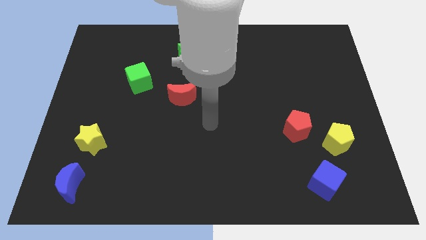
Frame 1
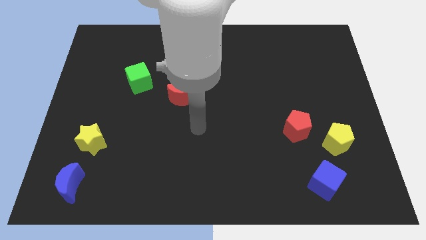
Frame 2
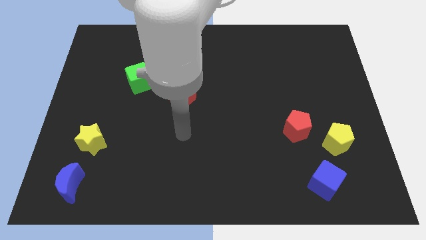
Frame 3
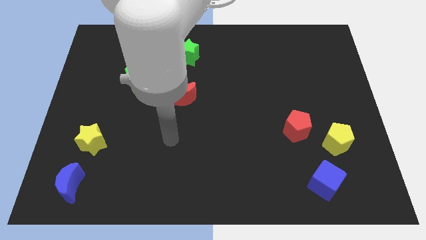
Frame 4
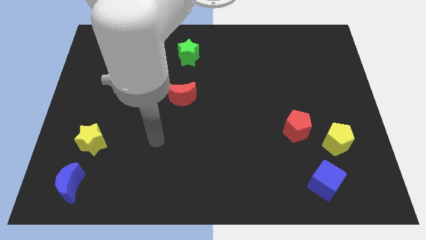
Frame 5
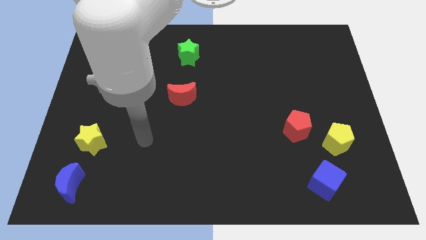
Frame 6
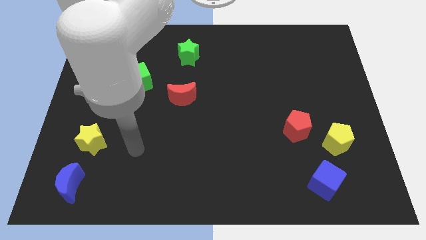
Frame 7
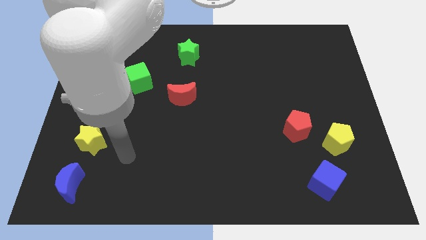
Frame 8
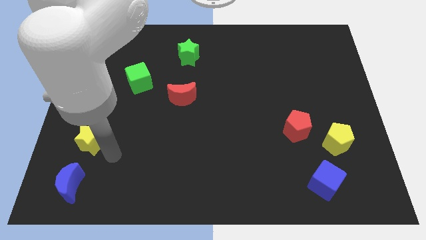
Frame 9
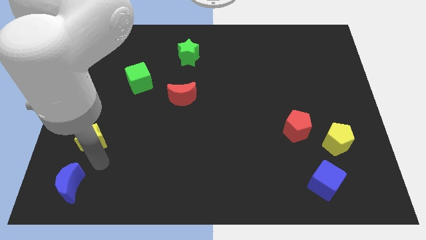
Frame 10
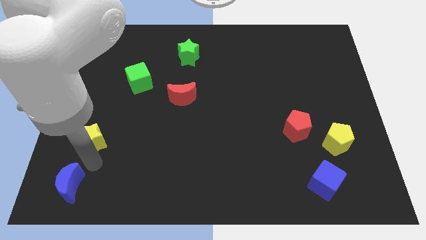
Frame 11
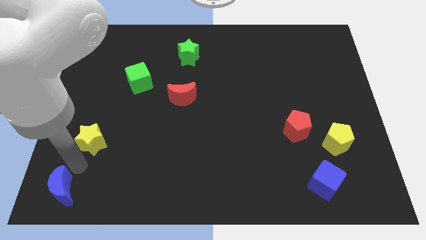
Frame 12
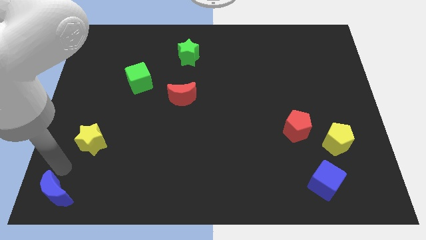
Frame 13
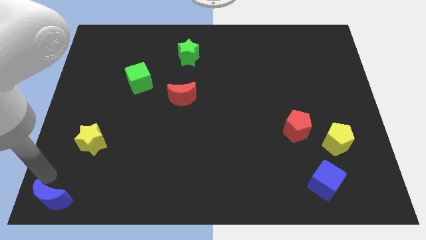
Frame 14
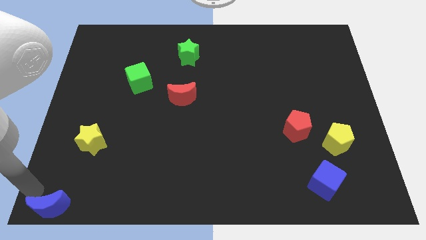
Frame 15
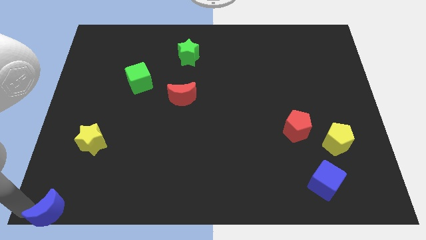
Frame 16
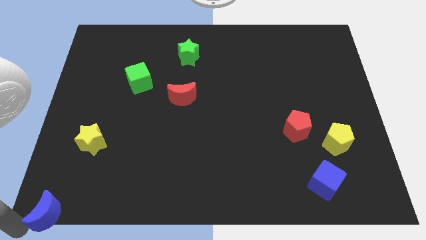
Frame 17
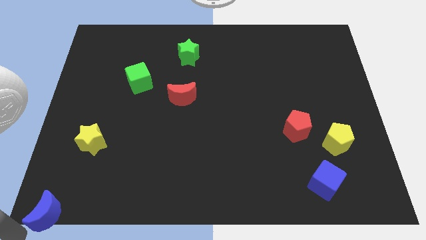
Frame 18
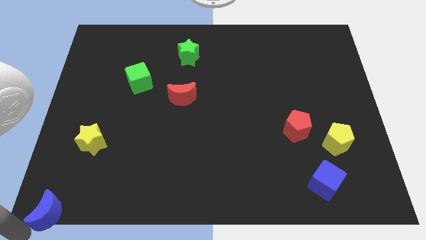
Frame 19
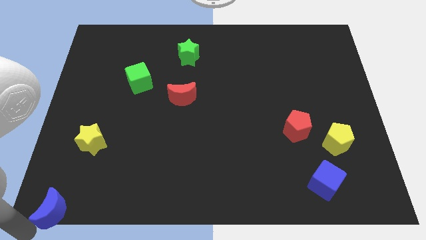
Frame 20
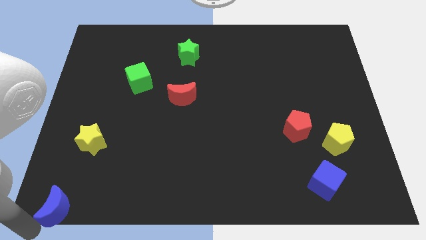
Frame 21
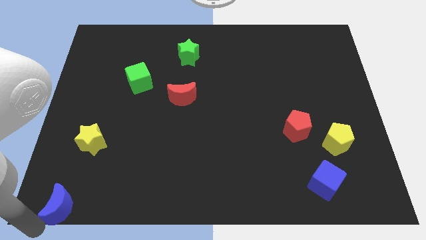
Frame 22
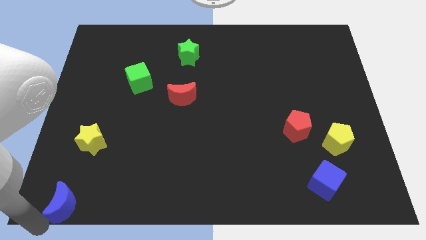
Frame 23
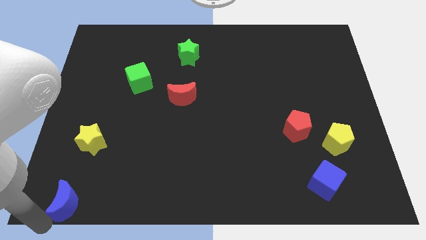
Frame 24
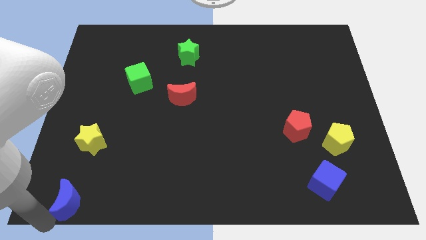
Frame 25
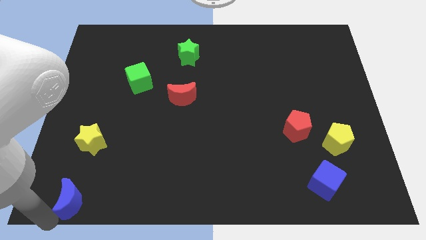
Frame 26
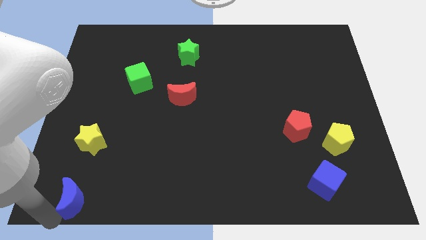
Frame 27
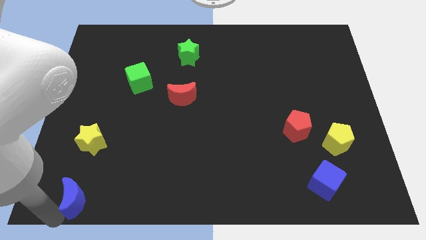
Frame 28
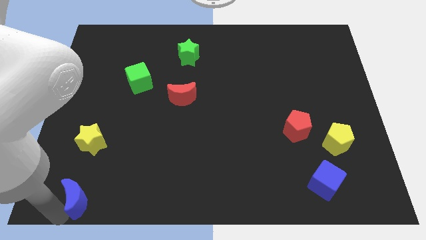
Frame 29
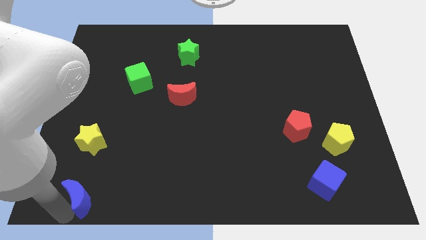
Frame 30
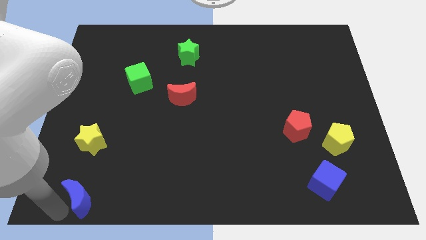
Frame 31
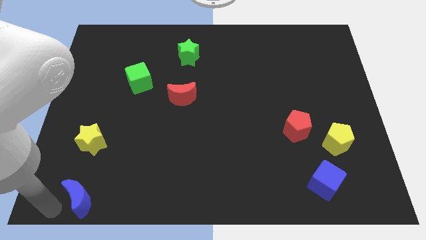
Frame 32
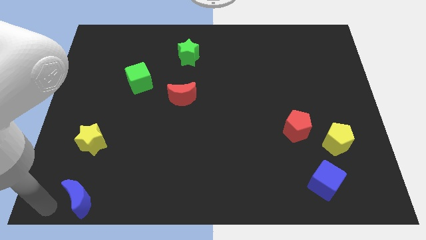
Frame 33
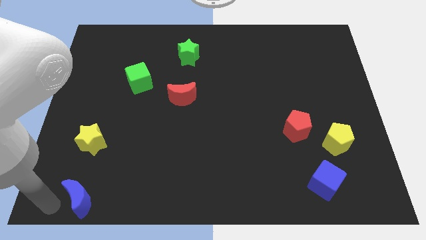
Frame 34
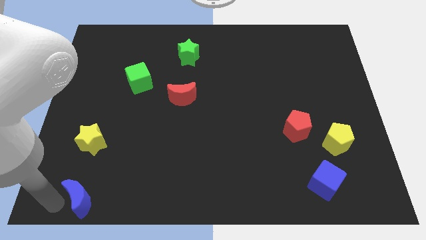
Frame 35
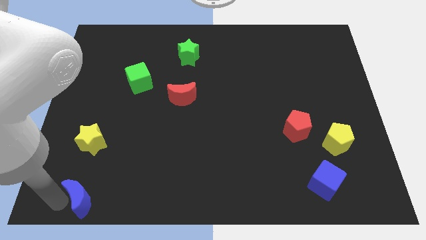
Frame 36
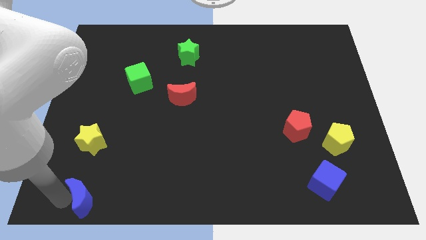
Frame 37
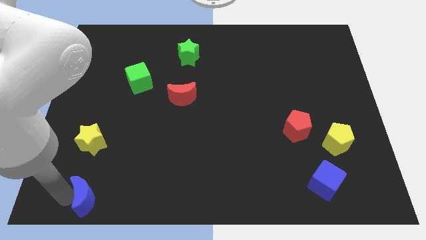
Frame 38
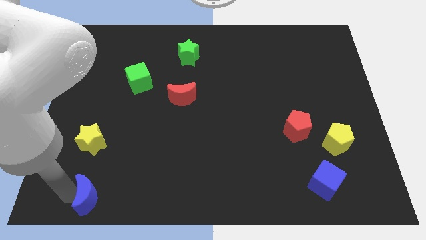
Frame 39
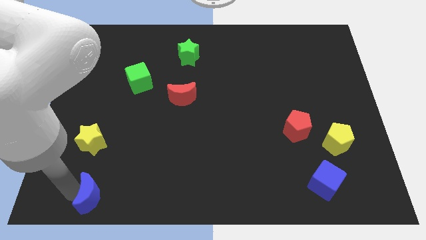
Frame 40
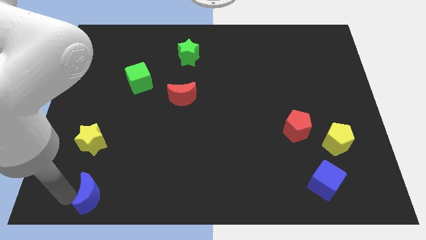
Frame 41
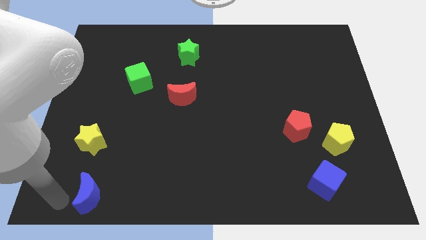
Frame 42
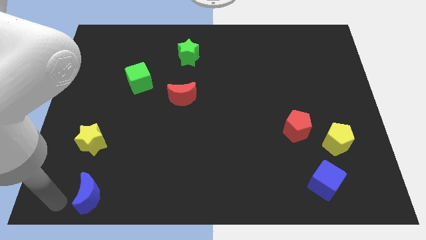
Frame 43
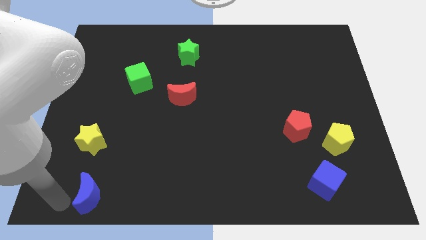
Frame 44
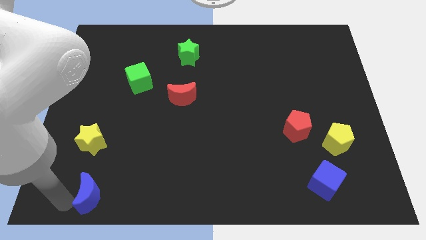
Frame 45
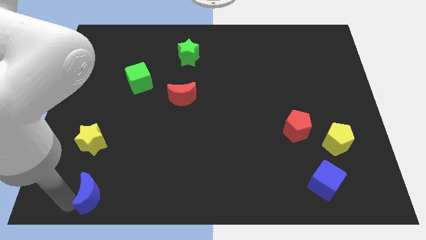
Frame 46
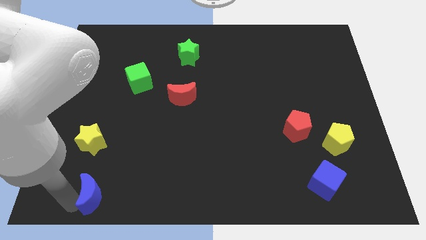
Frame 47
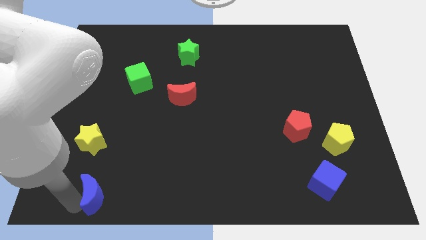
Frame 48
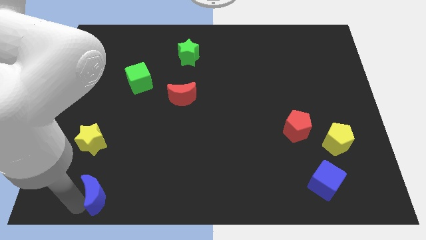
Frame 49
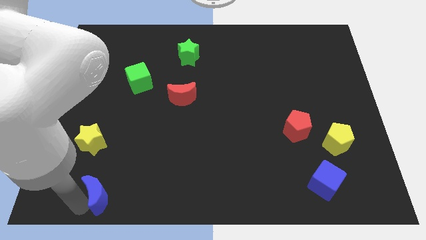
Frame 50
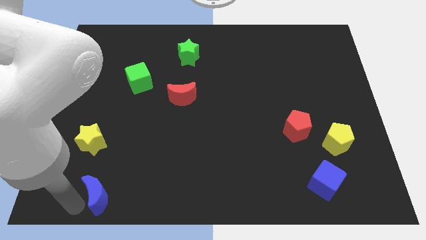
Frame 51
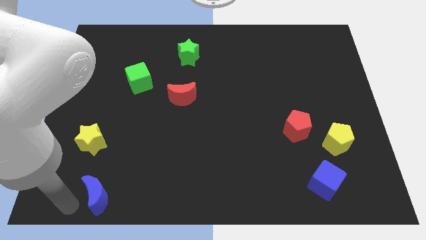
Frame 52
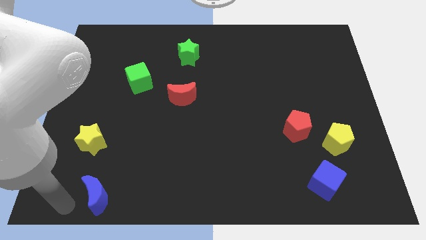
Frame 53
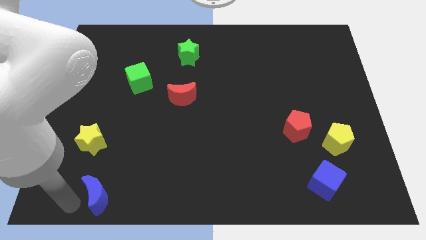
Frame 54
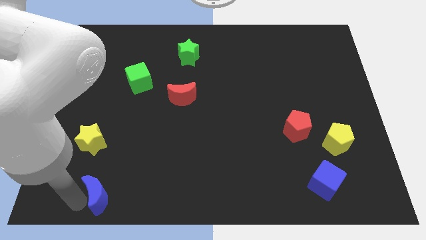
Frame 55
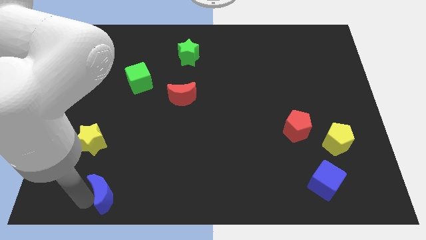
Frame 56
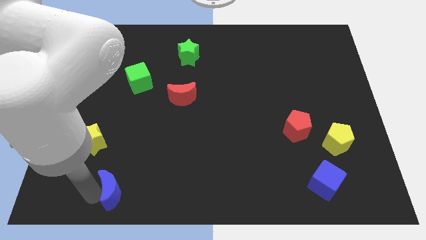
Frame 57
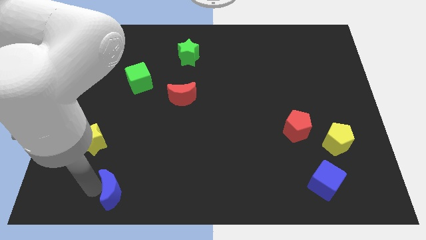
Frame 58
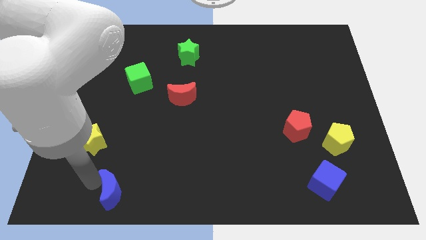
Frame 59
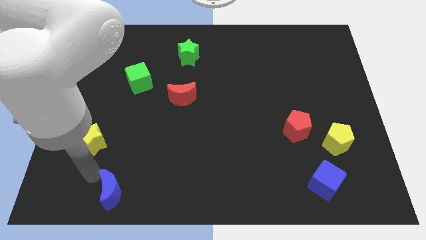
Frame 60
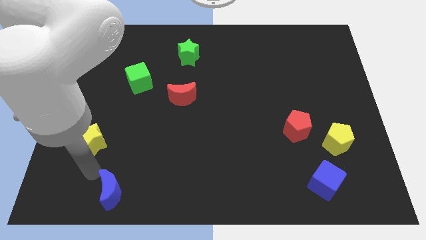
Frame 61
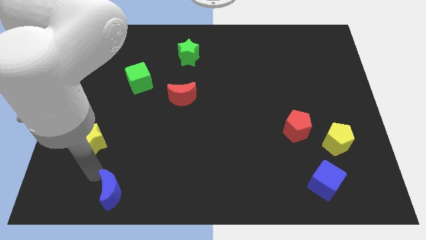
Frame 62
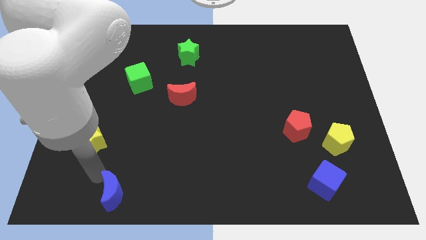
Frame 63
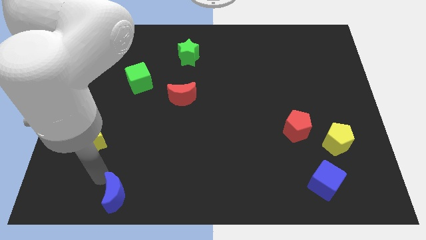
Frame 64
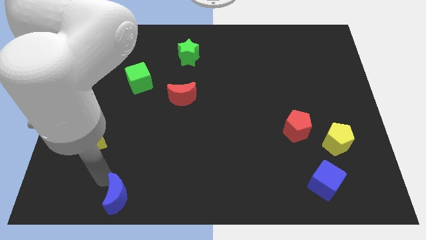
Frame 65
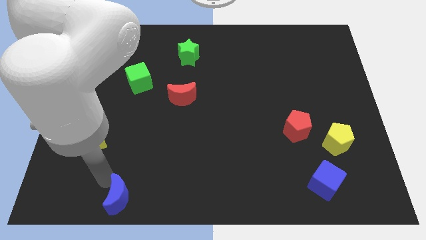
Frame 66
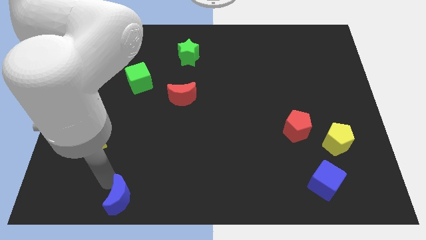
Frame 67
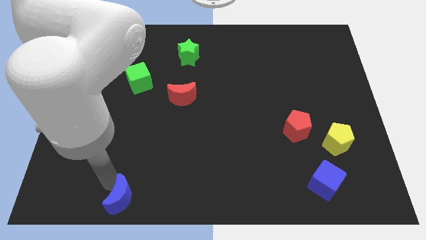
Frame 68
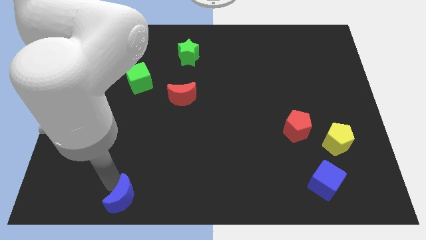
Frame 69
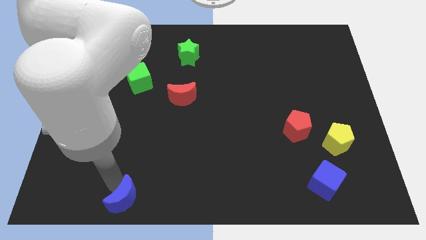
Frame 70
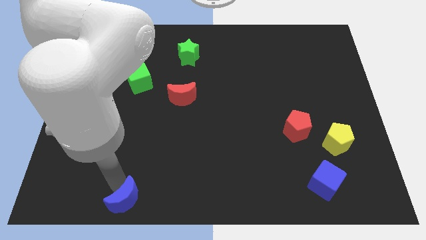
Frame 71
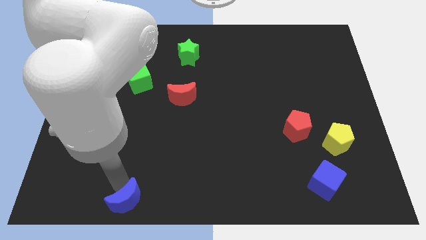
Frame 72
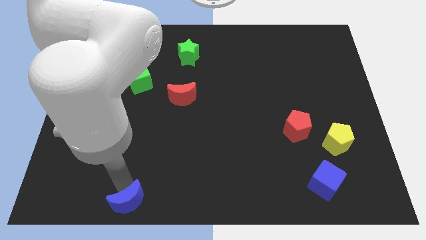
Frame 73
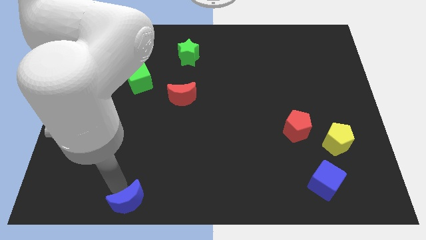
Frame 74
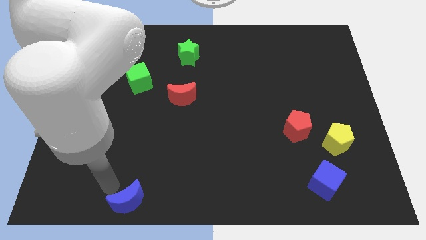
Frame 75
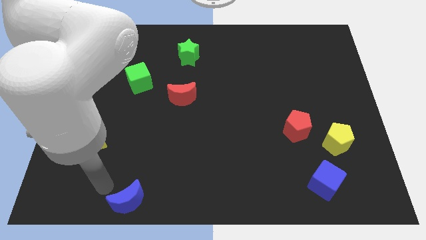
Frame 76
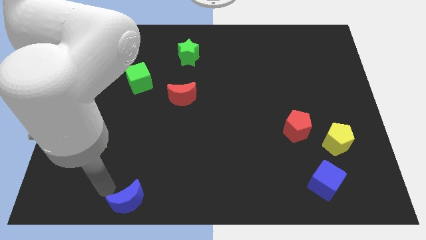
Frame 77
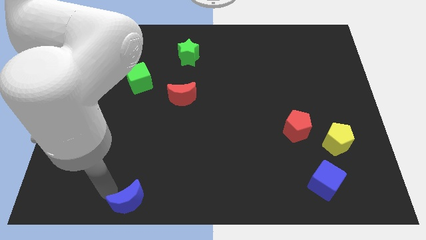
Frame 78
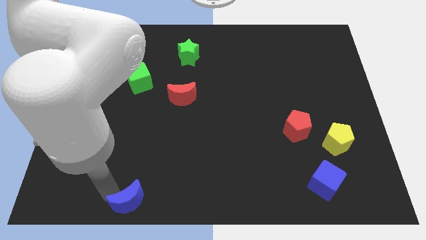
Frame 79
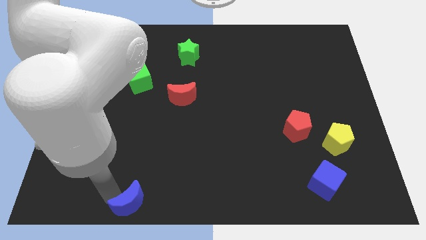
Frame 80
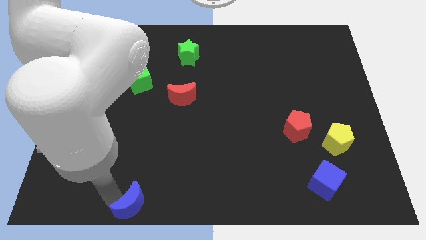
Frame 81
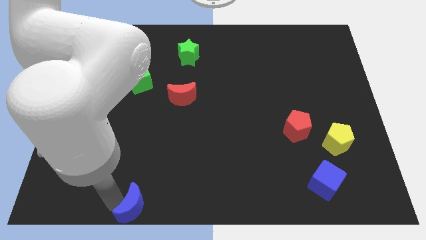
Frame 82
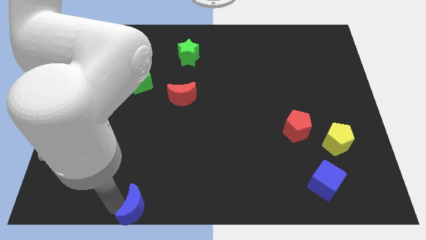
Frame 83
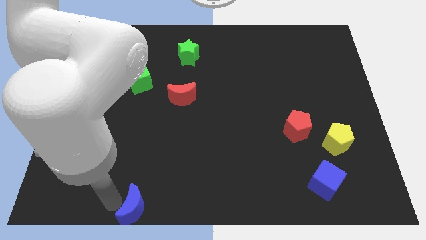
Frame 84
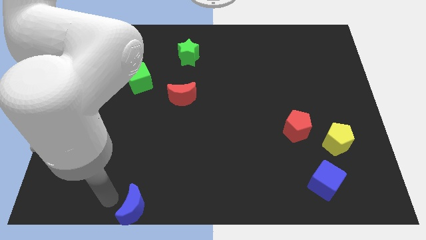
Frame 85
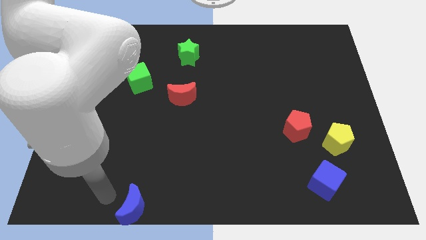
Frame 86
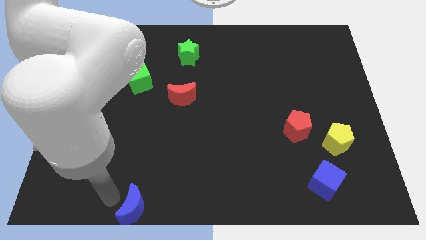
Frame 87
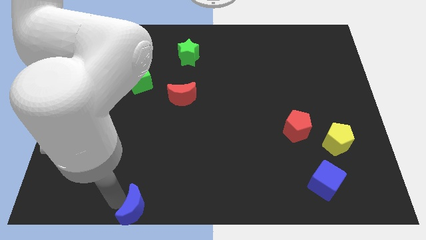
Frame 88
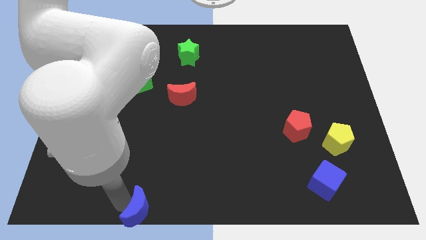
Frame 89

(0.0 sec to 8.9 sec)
put the blue moon to the bottom
